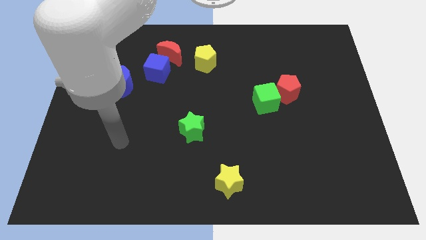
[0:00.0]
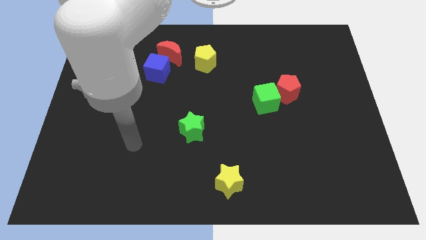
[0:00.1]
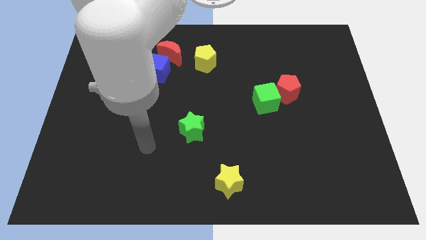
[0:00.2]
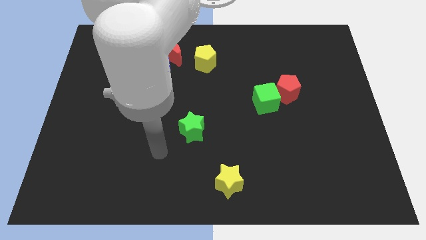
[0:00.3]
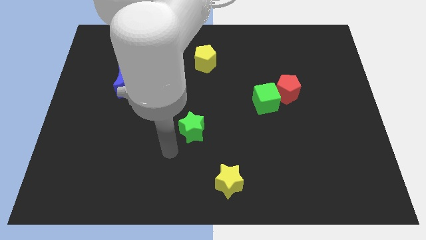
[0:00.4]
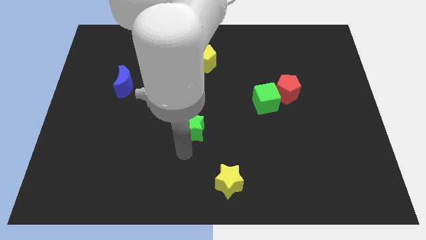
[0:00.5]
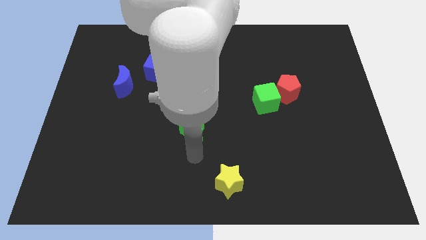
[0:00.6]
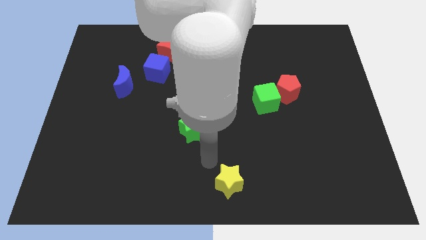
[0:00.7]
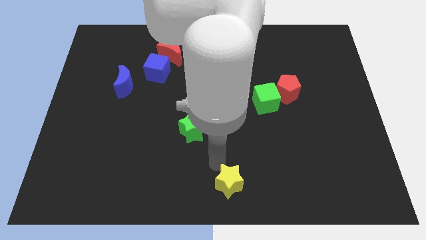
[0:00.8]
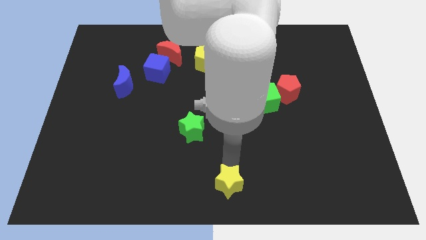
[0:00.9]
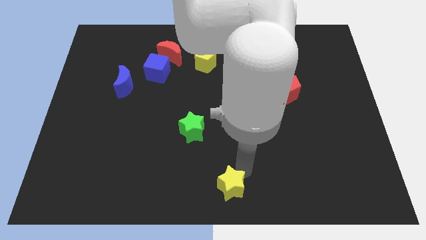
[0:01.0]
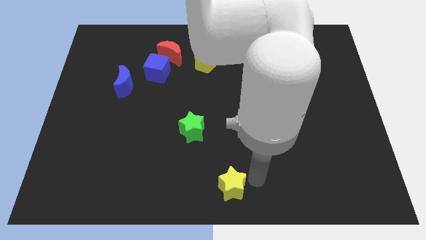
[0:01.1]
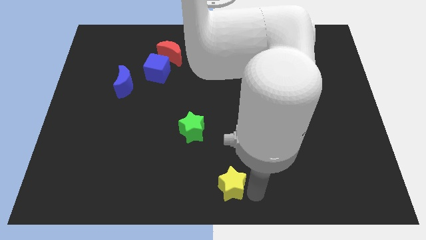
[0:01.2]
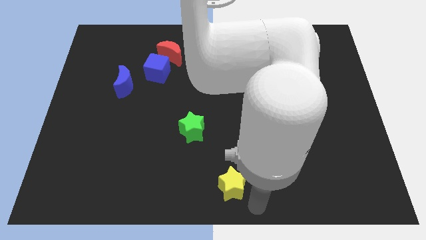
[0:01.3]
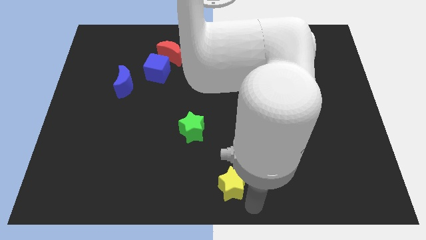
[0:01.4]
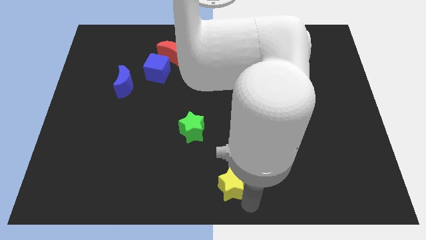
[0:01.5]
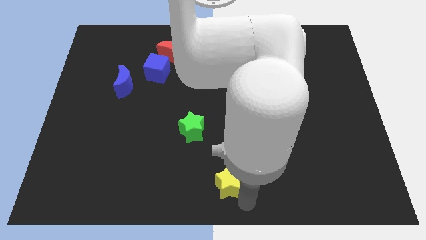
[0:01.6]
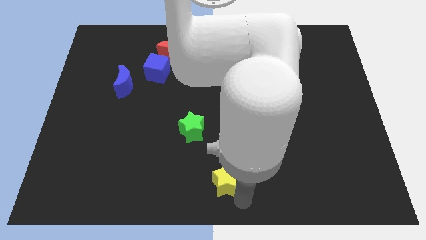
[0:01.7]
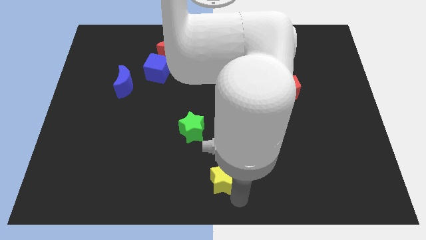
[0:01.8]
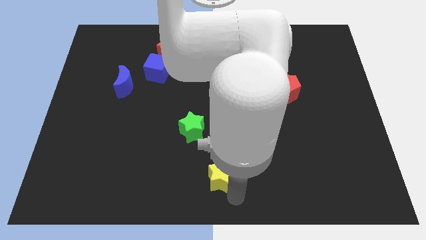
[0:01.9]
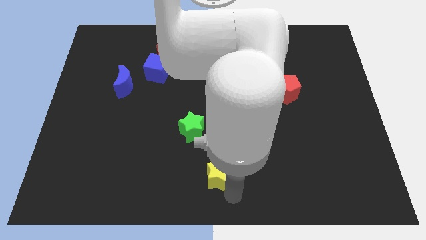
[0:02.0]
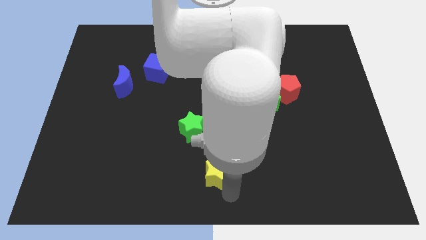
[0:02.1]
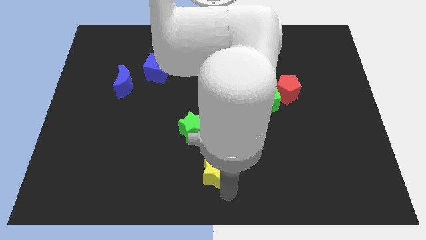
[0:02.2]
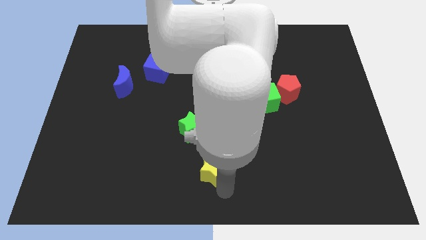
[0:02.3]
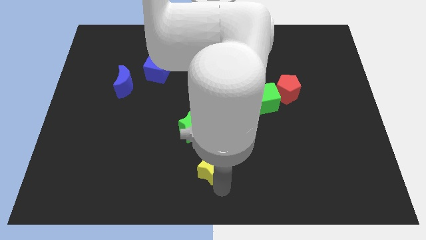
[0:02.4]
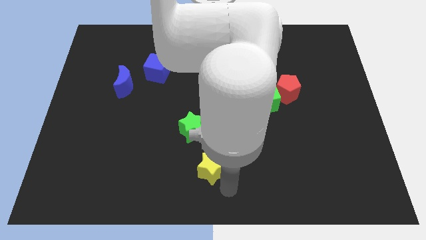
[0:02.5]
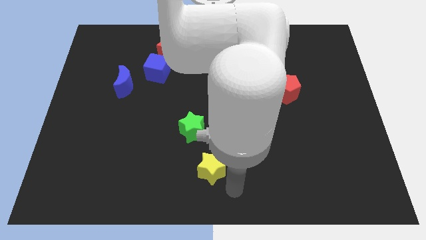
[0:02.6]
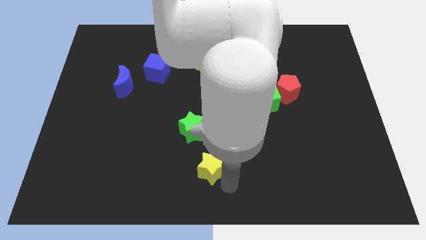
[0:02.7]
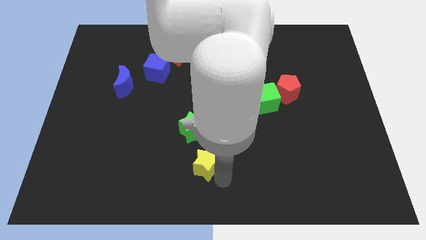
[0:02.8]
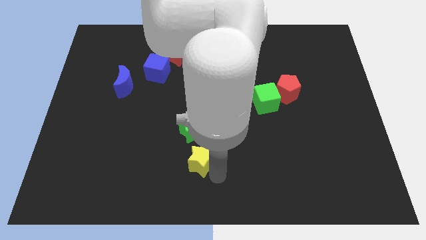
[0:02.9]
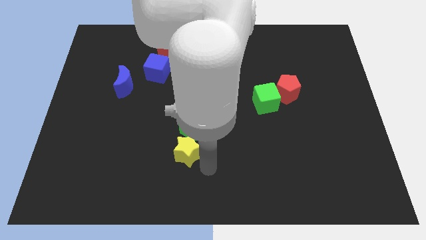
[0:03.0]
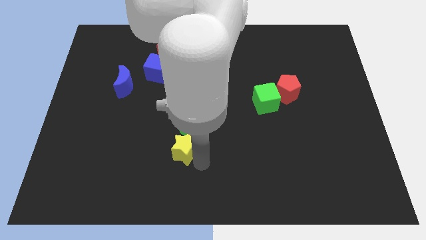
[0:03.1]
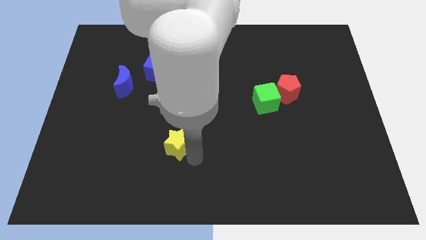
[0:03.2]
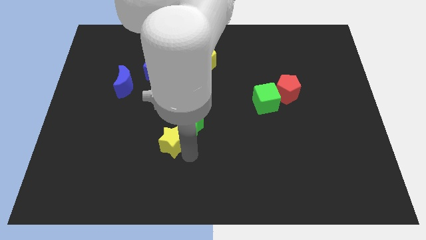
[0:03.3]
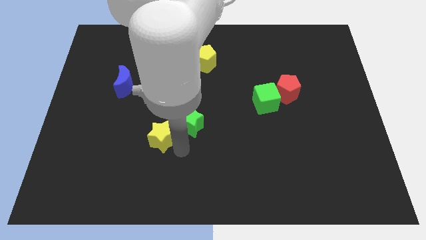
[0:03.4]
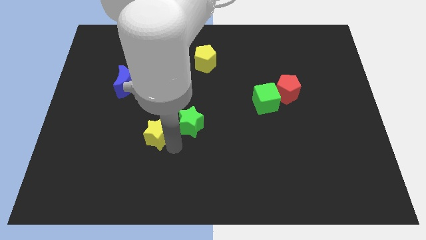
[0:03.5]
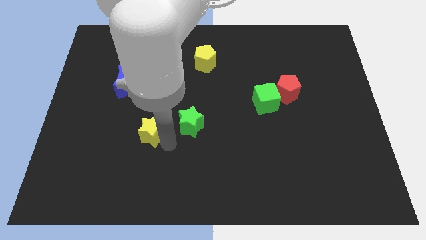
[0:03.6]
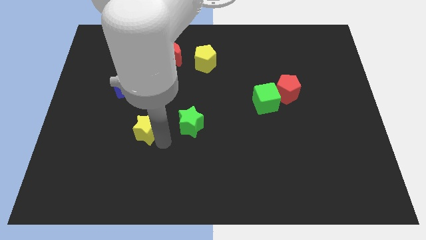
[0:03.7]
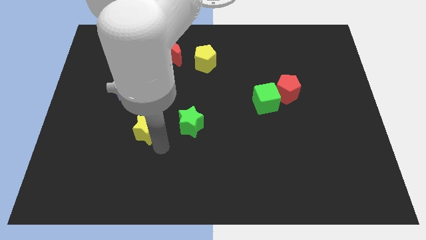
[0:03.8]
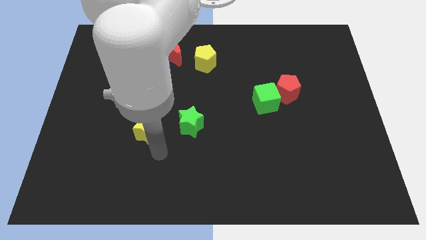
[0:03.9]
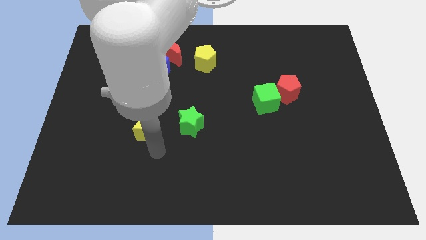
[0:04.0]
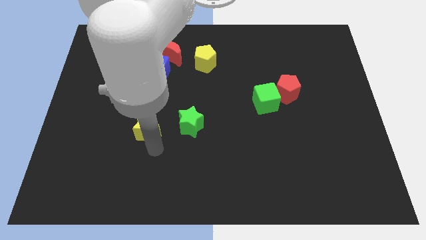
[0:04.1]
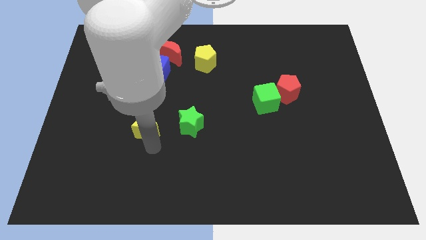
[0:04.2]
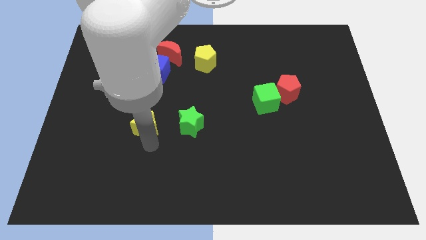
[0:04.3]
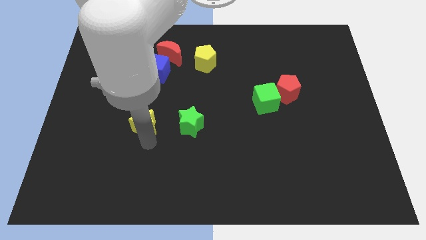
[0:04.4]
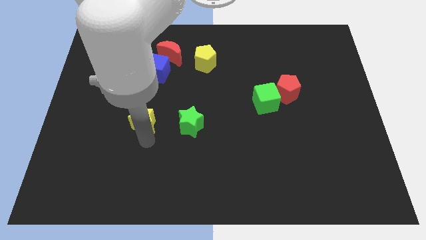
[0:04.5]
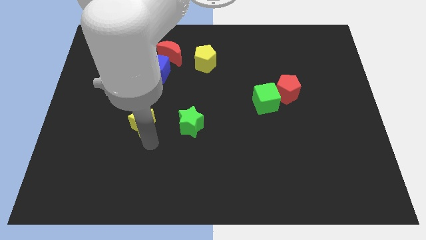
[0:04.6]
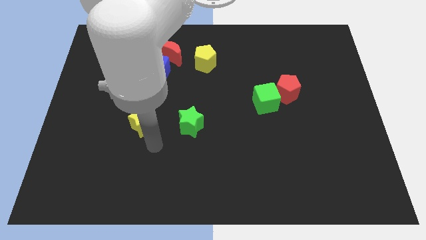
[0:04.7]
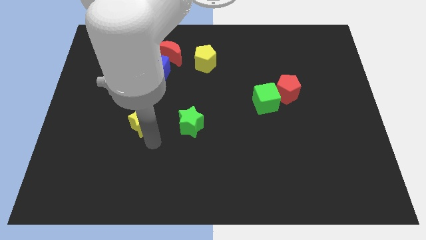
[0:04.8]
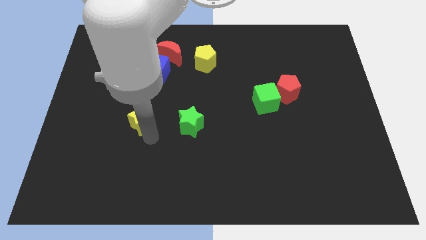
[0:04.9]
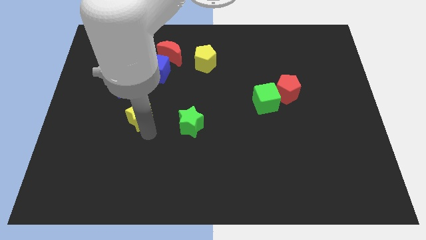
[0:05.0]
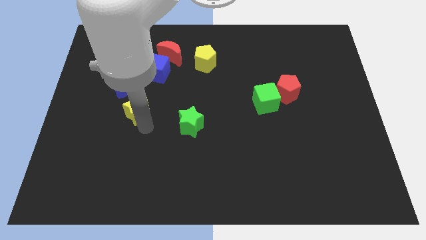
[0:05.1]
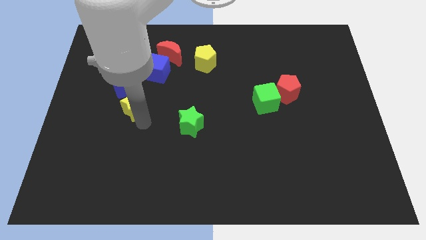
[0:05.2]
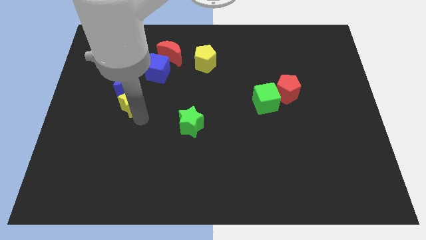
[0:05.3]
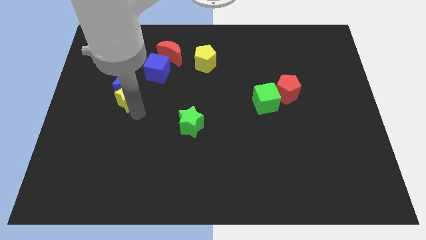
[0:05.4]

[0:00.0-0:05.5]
put the yellow star close to the blue moon

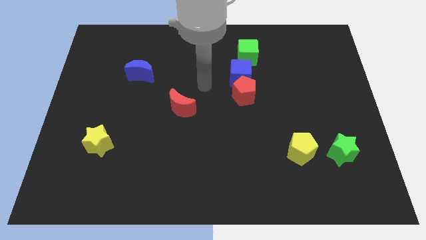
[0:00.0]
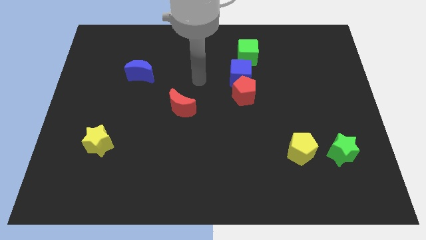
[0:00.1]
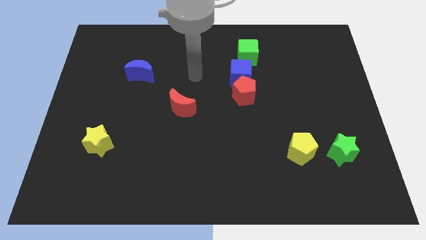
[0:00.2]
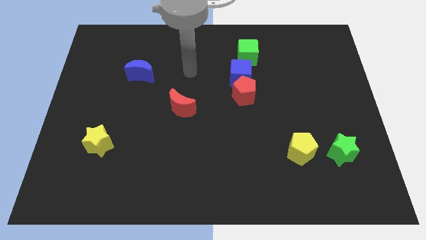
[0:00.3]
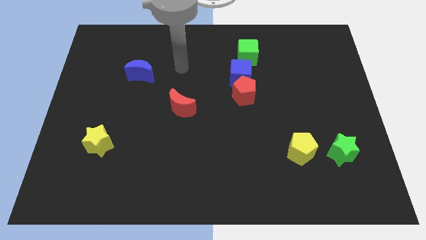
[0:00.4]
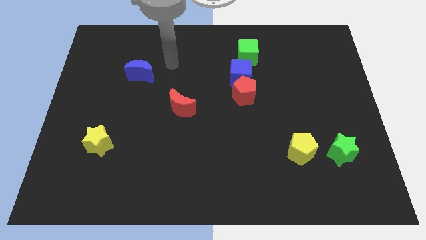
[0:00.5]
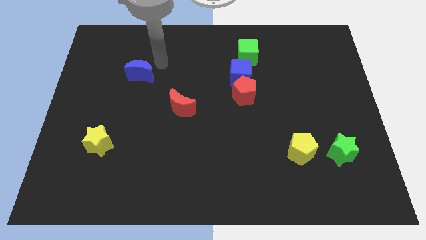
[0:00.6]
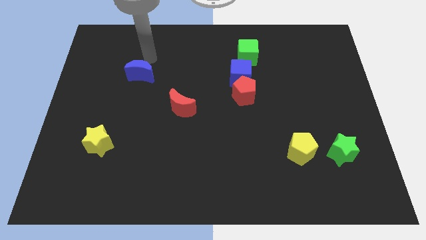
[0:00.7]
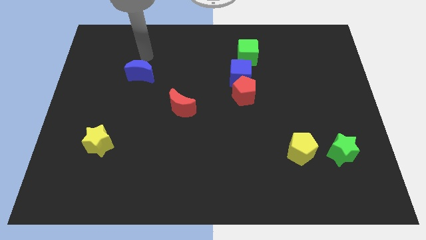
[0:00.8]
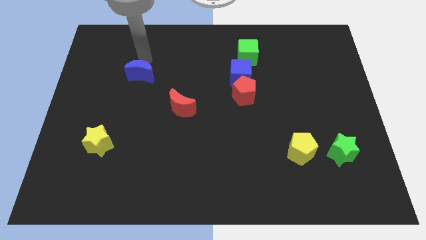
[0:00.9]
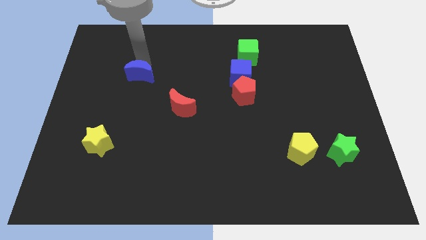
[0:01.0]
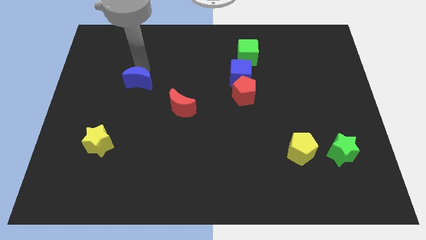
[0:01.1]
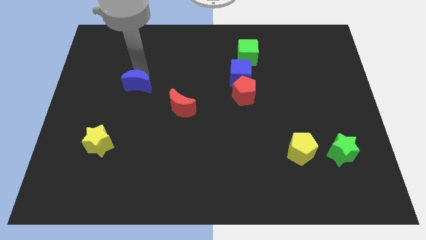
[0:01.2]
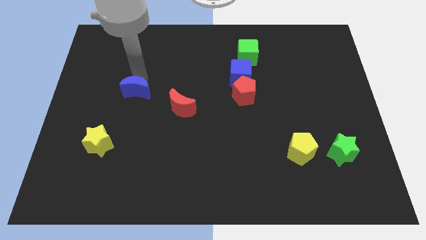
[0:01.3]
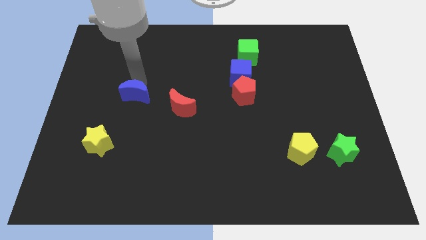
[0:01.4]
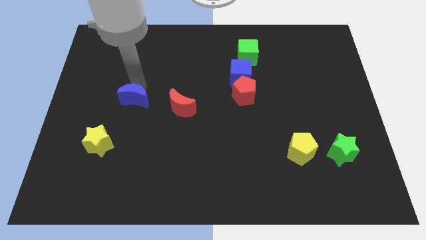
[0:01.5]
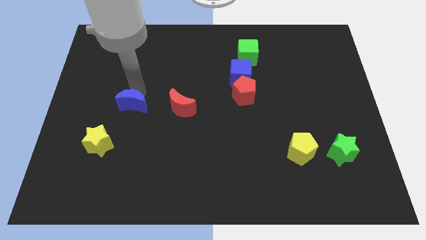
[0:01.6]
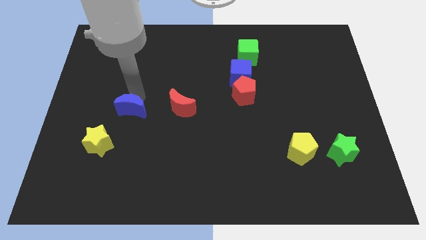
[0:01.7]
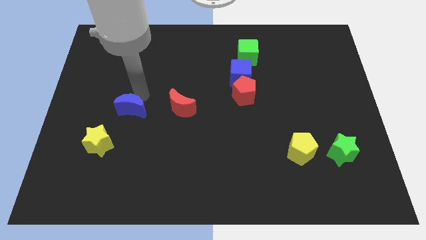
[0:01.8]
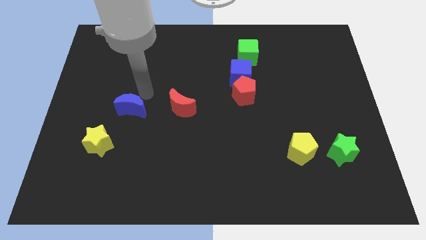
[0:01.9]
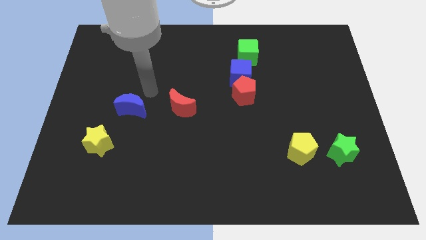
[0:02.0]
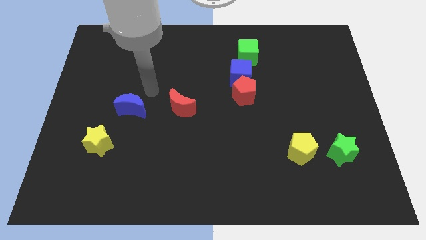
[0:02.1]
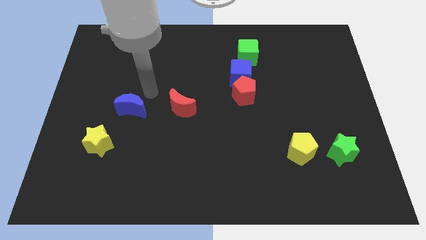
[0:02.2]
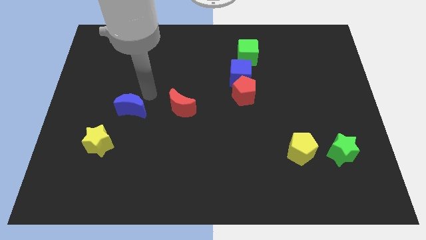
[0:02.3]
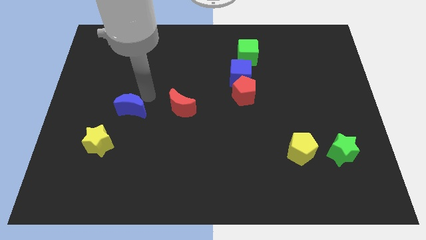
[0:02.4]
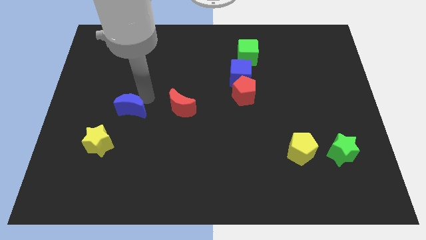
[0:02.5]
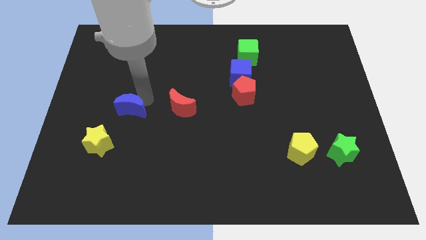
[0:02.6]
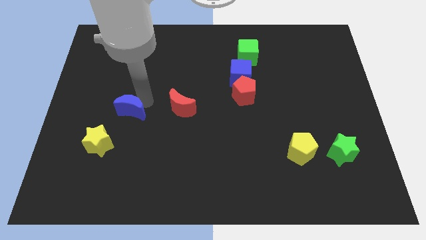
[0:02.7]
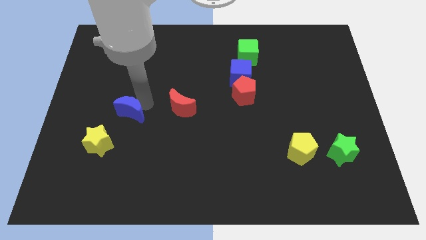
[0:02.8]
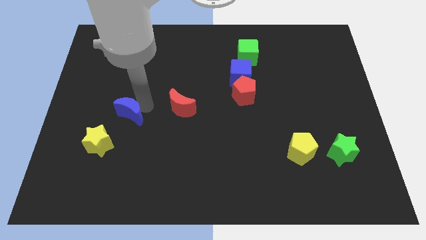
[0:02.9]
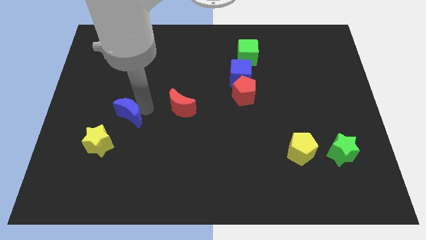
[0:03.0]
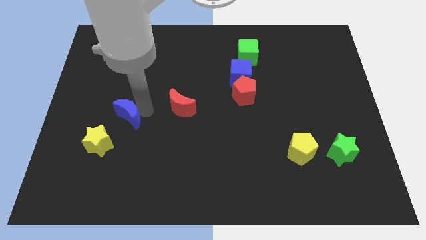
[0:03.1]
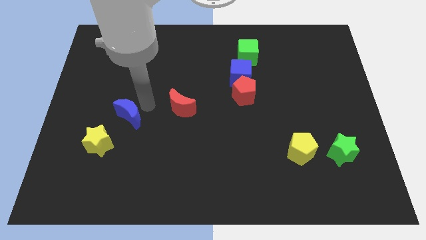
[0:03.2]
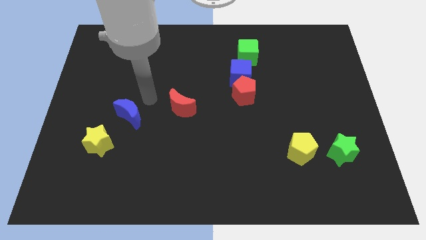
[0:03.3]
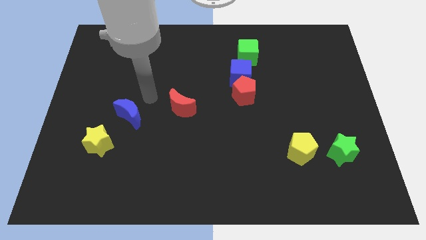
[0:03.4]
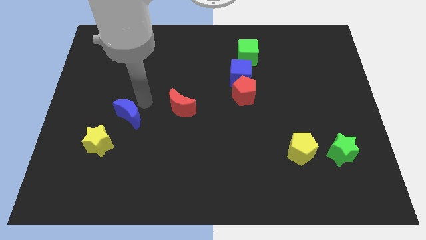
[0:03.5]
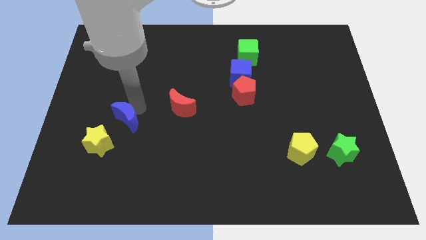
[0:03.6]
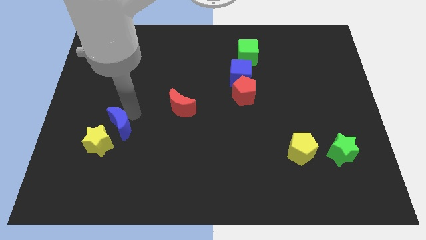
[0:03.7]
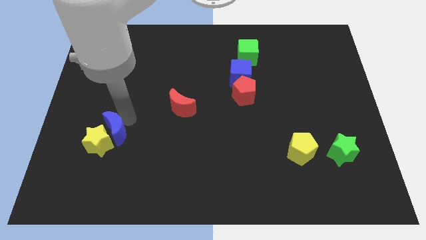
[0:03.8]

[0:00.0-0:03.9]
push the blue moon towards the yellow star
